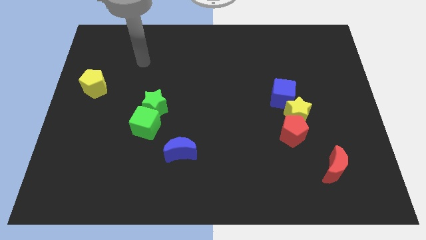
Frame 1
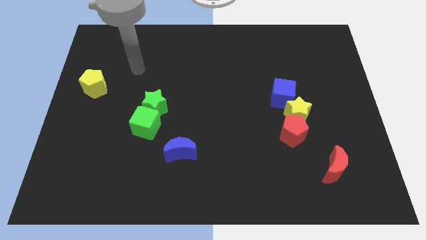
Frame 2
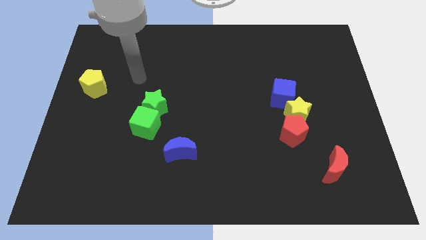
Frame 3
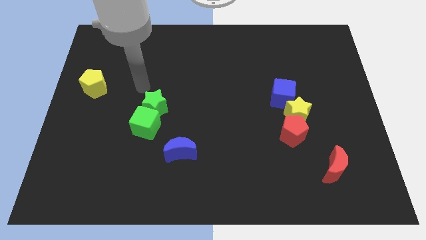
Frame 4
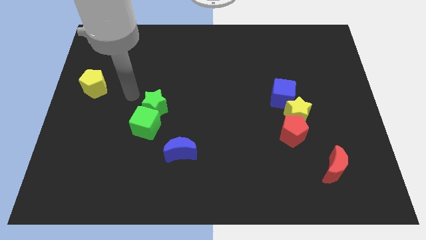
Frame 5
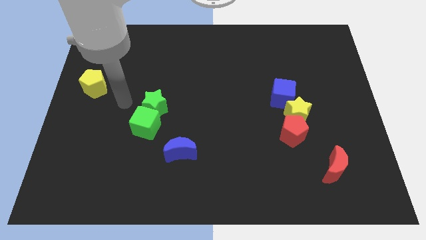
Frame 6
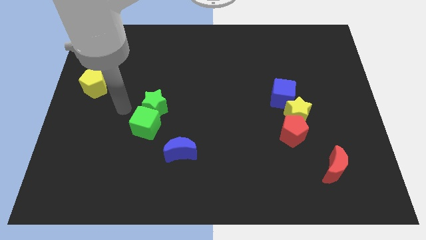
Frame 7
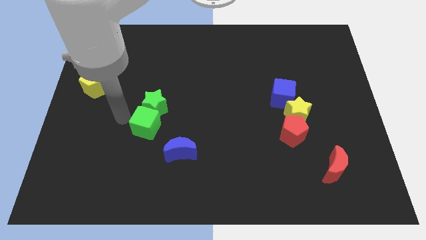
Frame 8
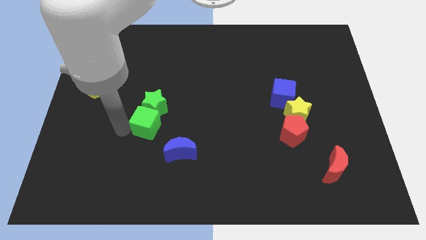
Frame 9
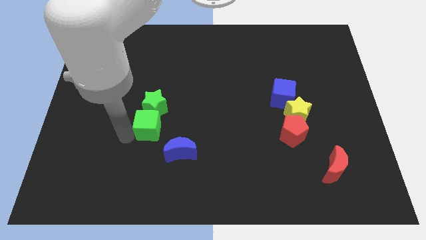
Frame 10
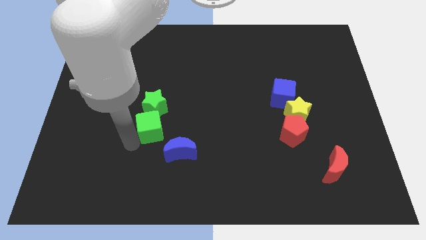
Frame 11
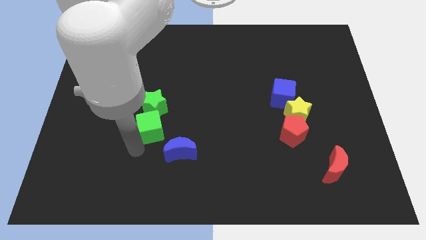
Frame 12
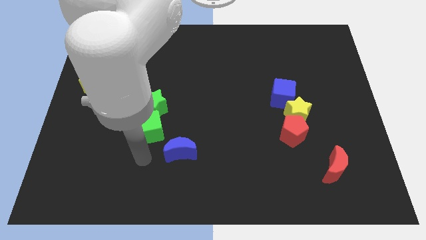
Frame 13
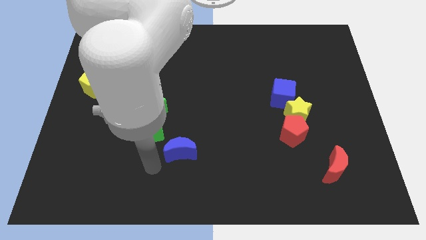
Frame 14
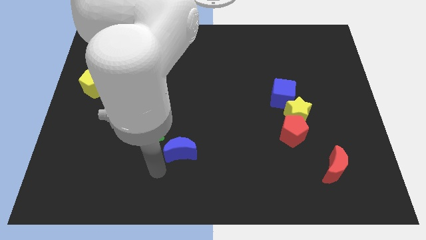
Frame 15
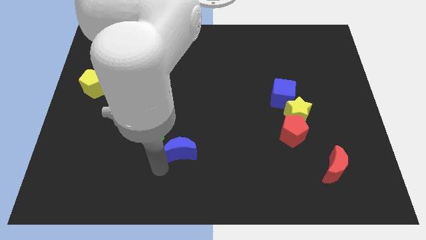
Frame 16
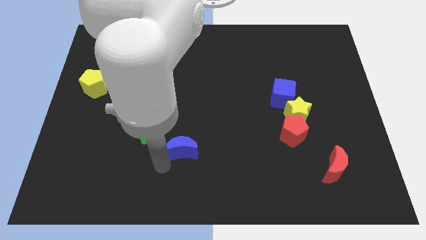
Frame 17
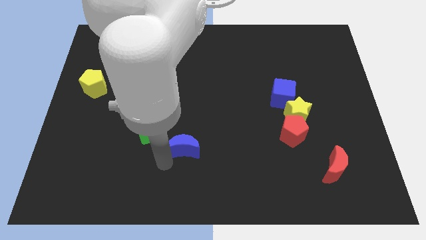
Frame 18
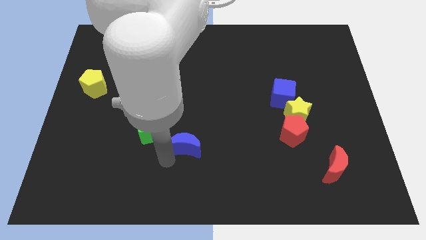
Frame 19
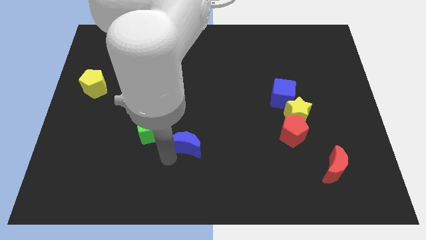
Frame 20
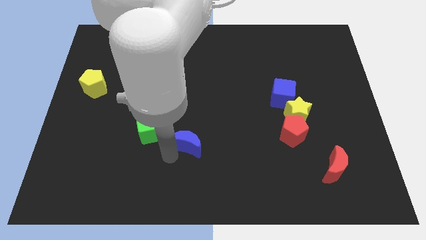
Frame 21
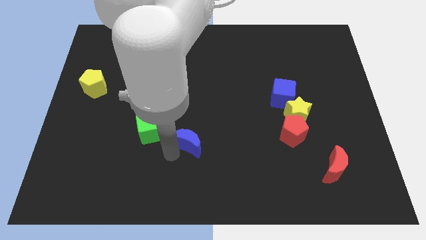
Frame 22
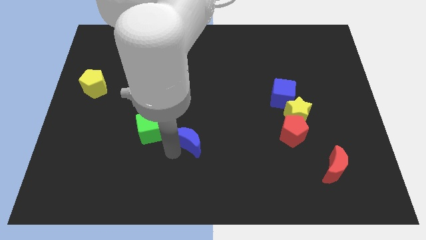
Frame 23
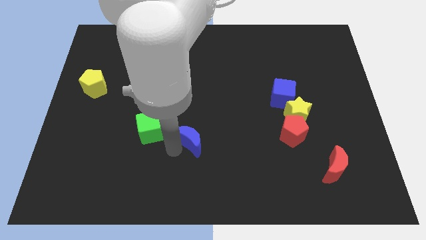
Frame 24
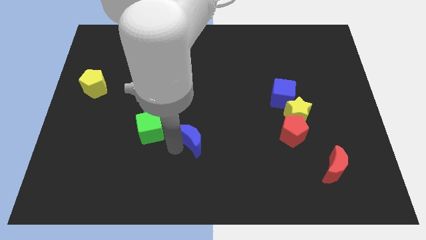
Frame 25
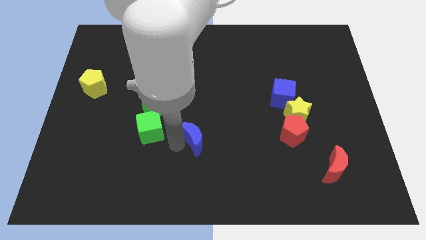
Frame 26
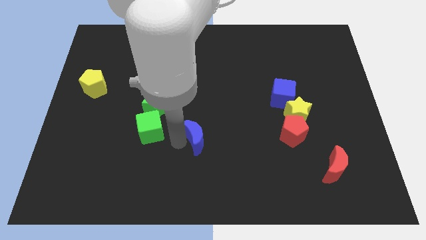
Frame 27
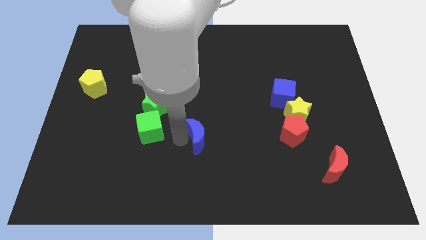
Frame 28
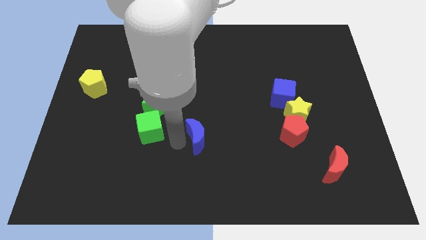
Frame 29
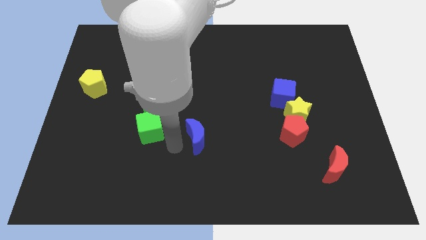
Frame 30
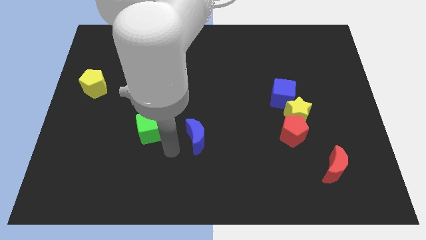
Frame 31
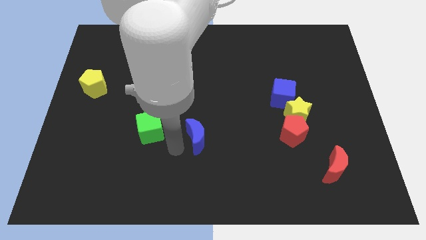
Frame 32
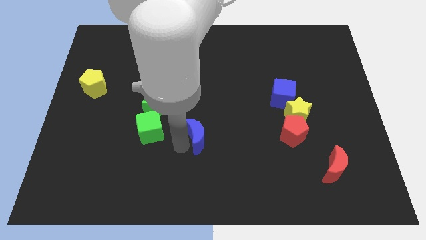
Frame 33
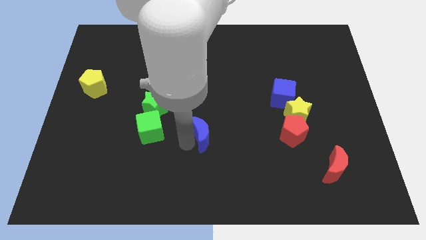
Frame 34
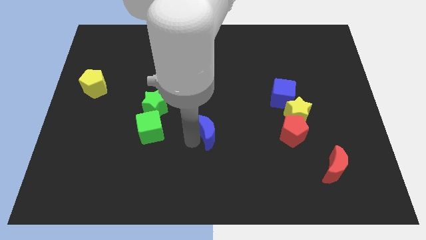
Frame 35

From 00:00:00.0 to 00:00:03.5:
move the blue moon a little bit upwards and then to the right

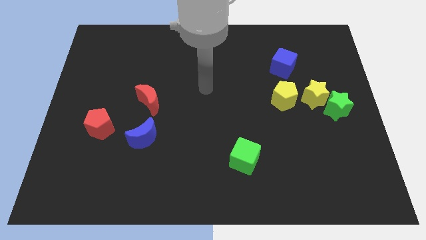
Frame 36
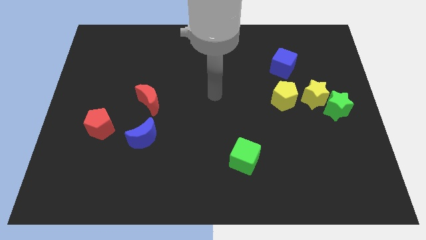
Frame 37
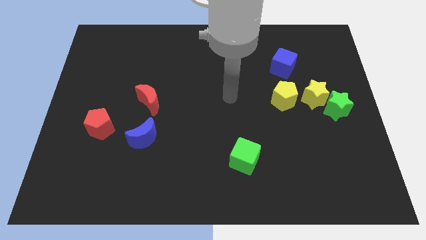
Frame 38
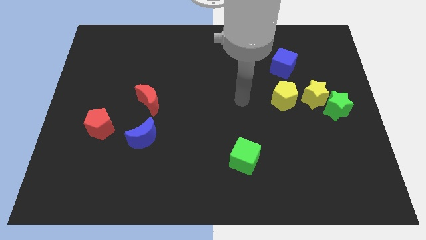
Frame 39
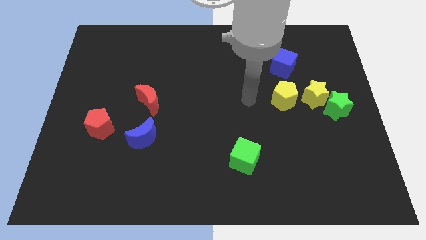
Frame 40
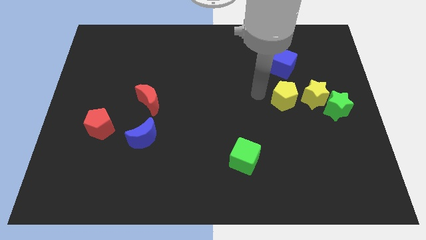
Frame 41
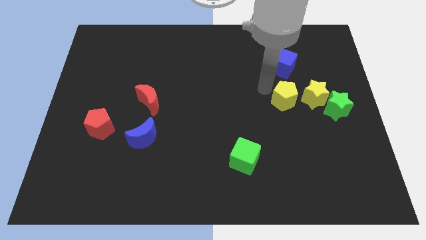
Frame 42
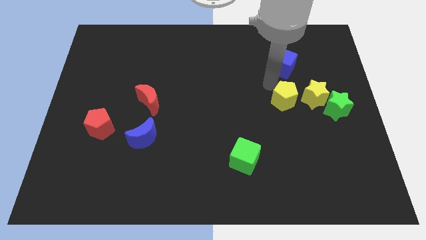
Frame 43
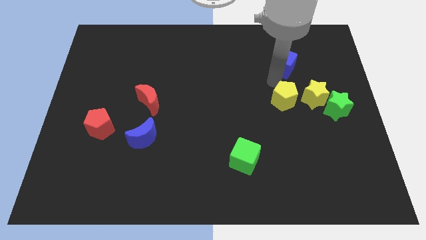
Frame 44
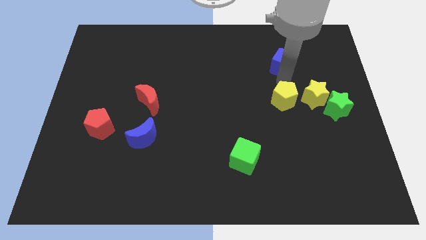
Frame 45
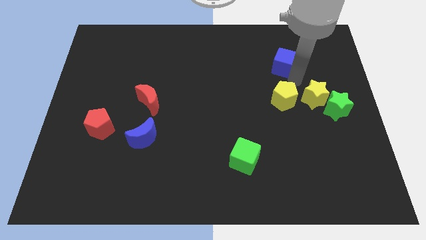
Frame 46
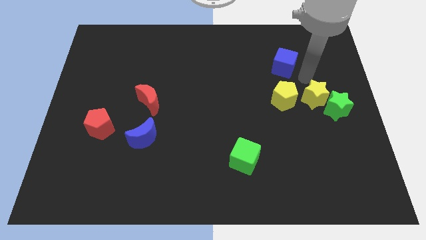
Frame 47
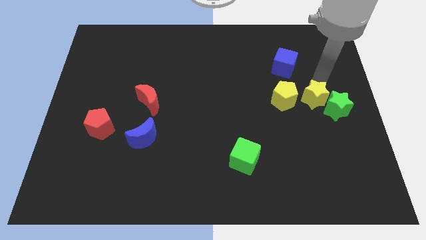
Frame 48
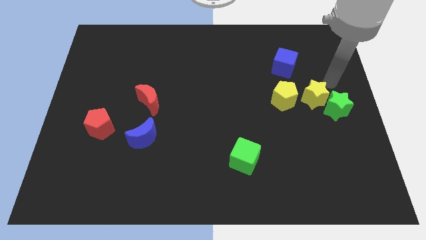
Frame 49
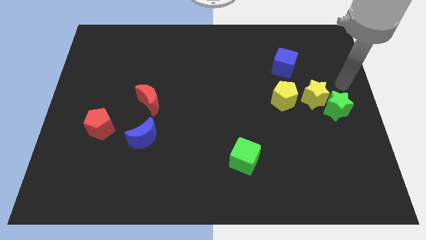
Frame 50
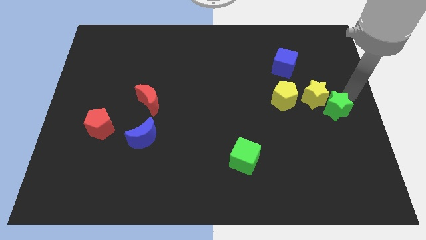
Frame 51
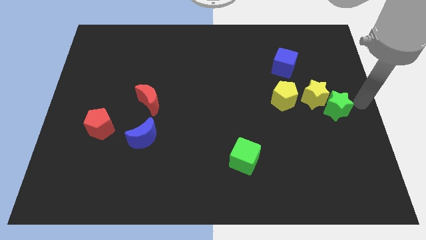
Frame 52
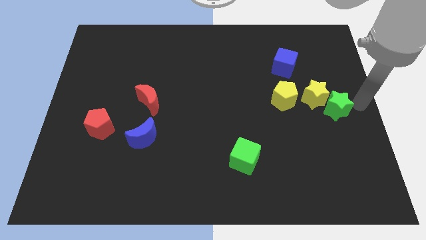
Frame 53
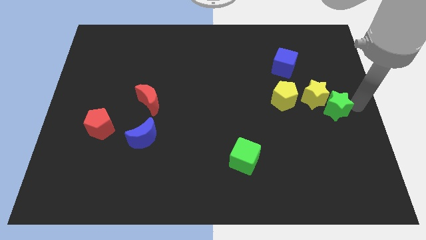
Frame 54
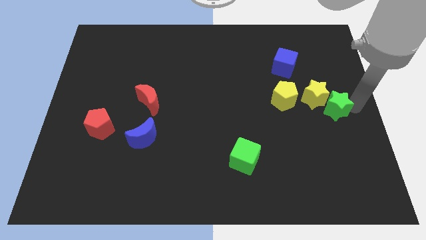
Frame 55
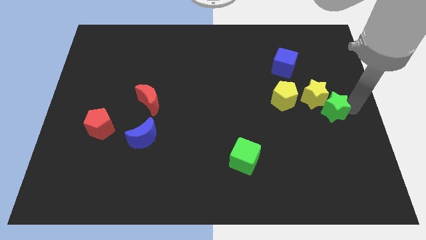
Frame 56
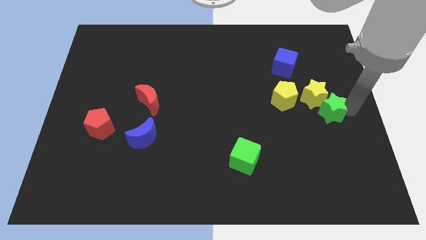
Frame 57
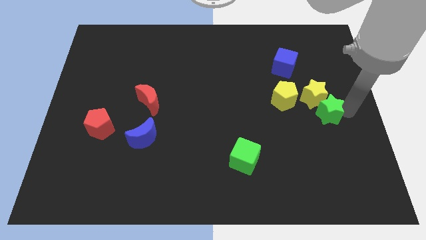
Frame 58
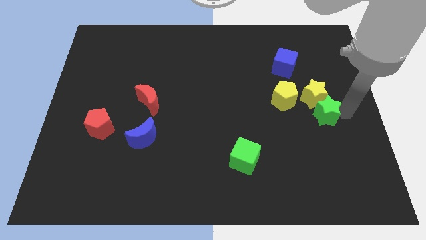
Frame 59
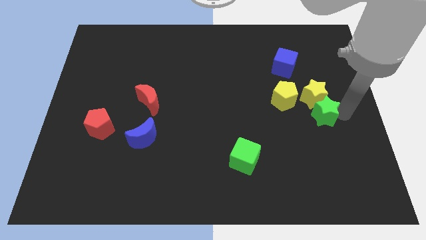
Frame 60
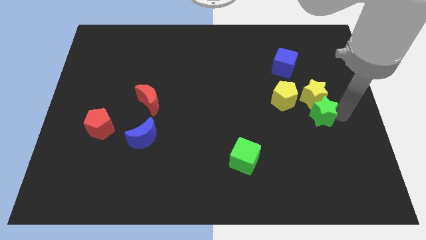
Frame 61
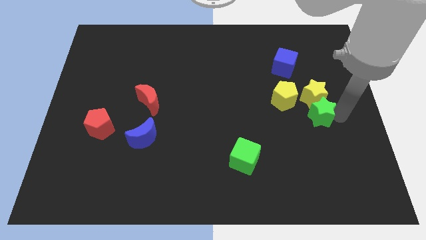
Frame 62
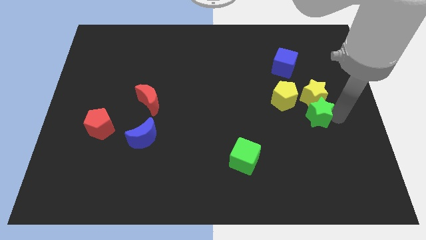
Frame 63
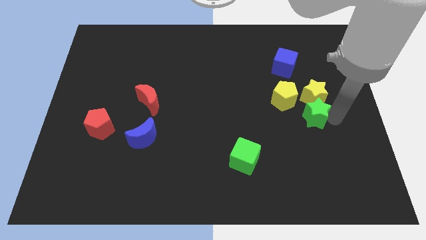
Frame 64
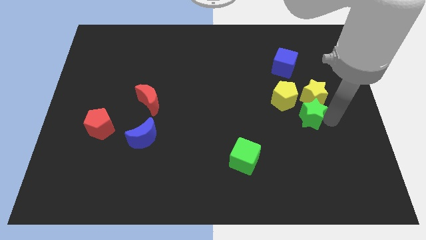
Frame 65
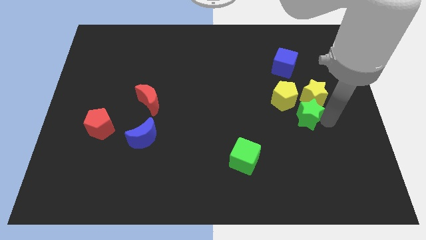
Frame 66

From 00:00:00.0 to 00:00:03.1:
slightly move the green star left

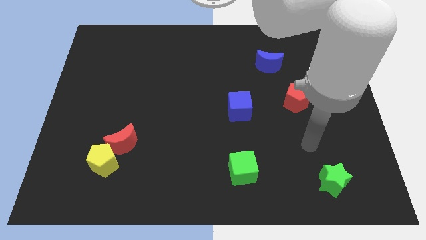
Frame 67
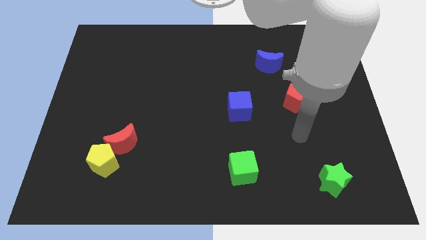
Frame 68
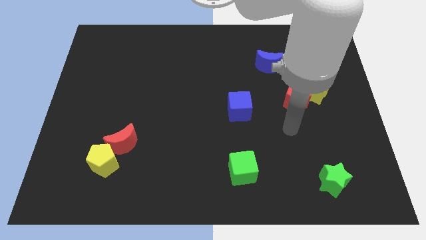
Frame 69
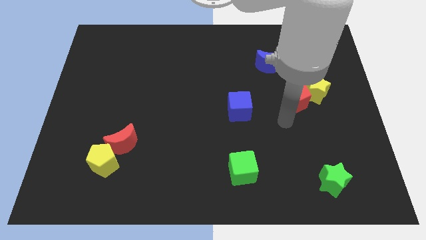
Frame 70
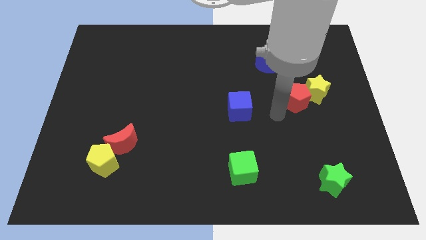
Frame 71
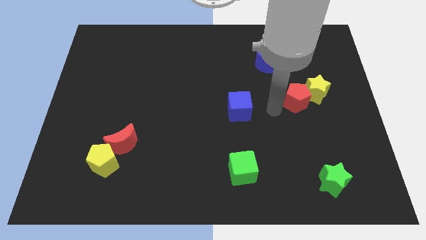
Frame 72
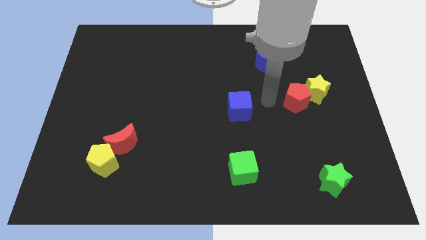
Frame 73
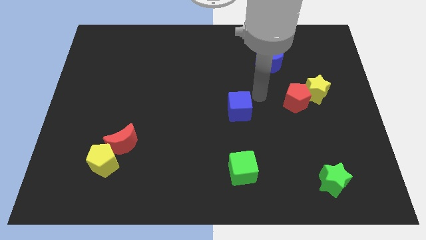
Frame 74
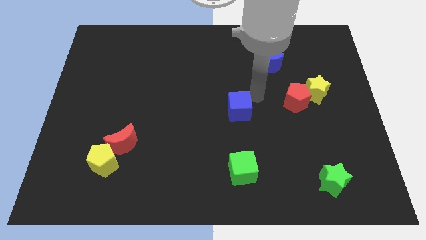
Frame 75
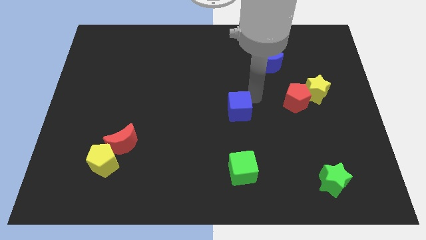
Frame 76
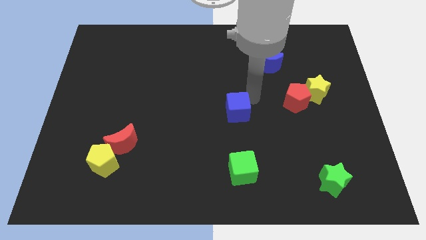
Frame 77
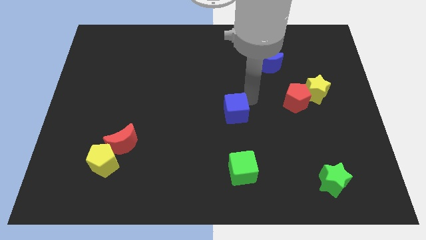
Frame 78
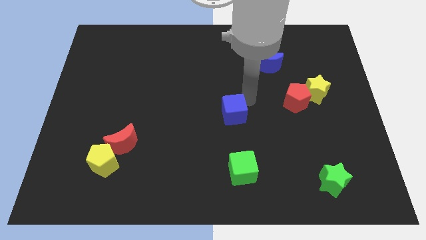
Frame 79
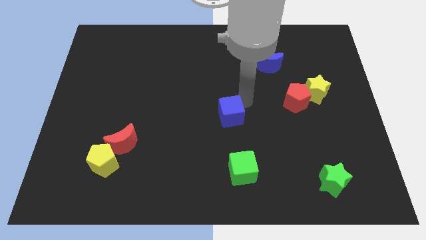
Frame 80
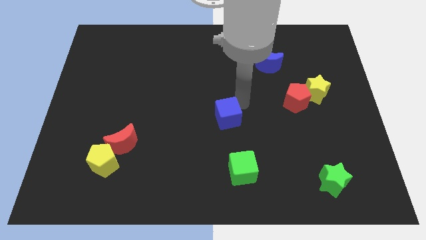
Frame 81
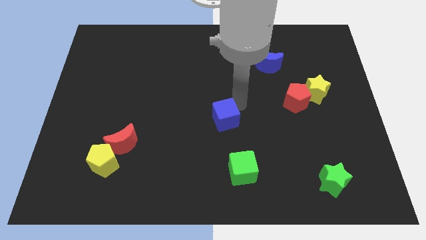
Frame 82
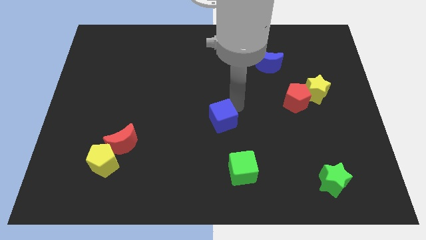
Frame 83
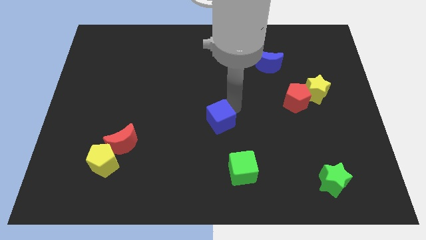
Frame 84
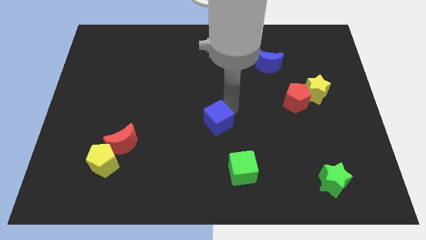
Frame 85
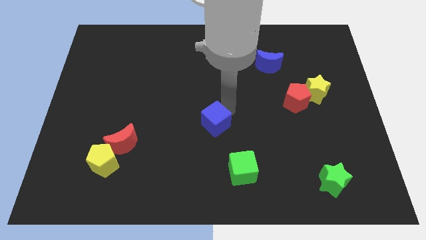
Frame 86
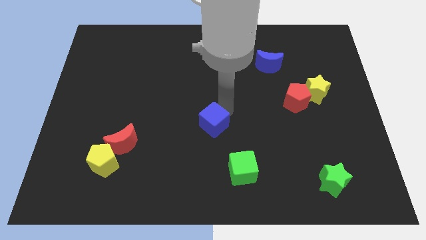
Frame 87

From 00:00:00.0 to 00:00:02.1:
slide the blue cube a bit downwards and then left
